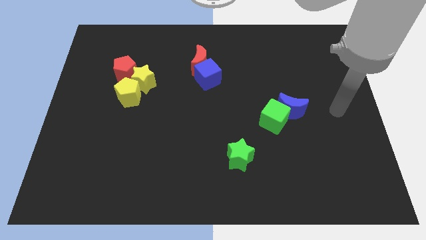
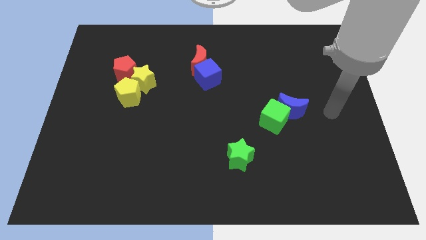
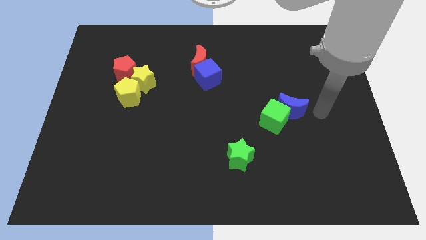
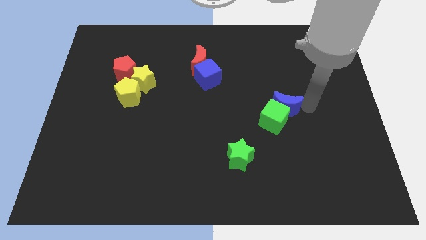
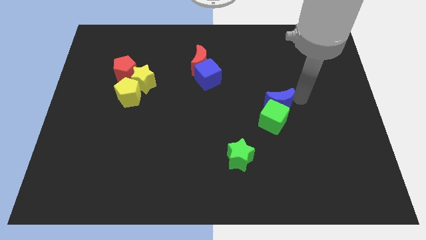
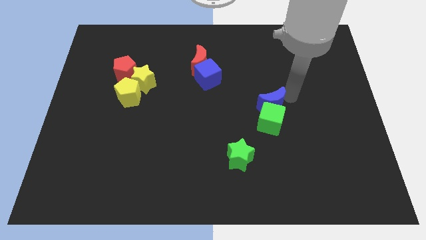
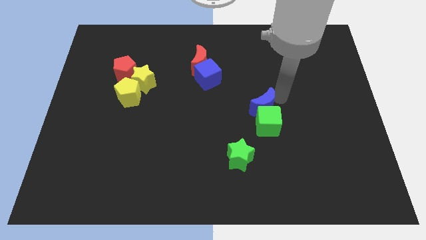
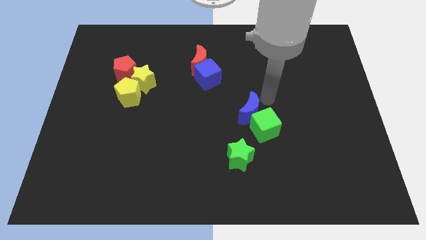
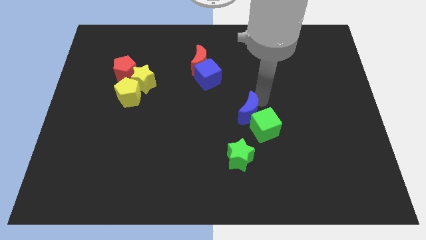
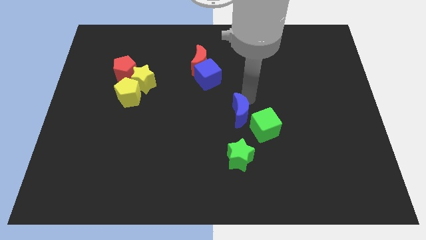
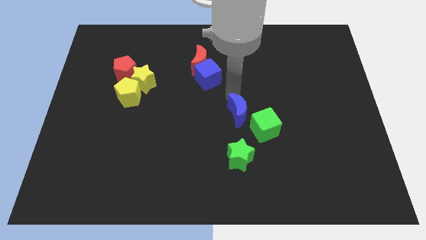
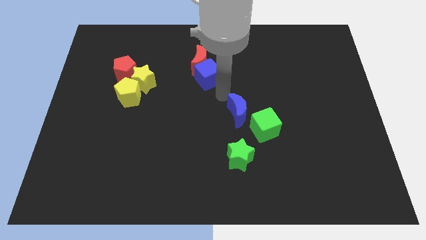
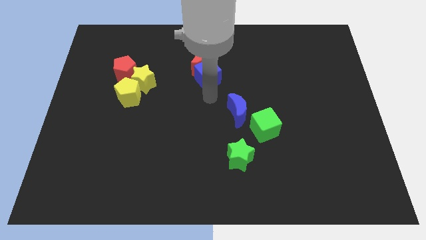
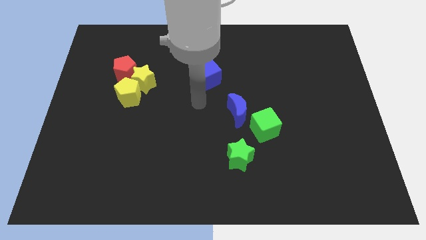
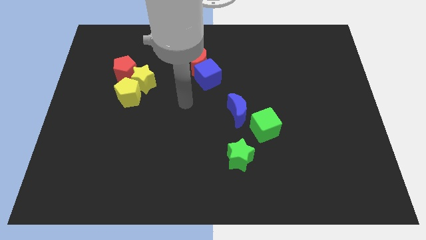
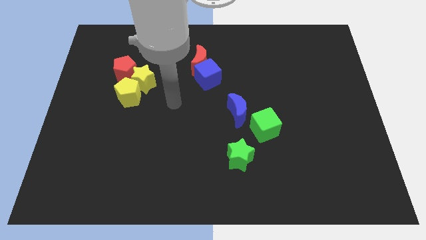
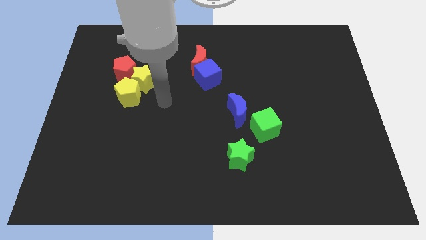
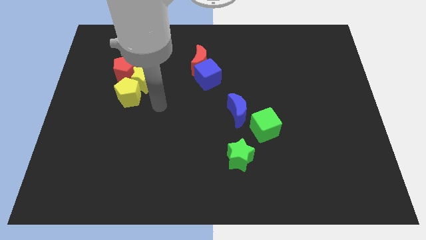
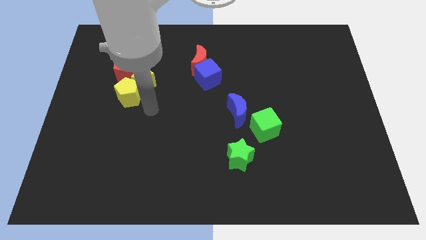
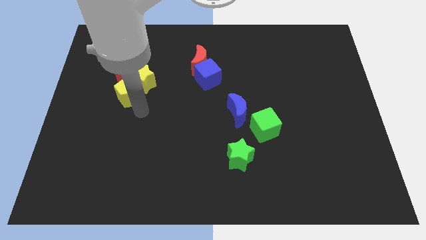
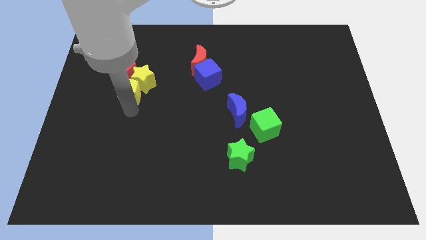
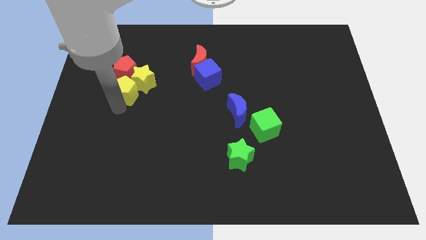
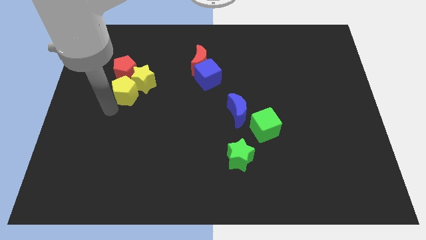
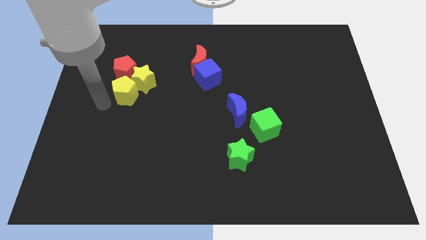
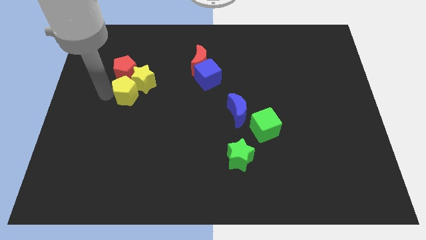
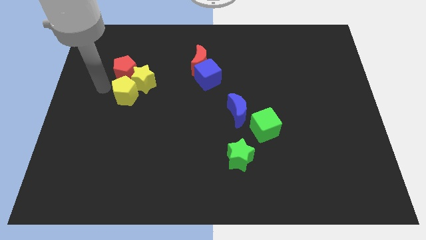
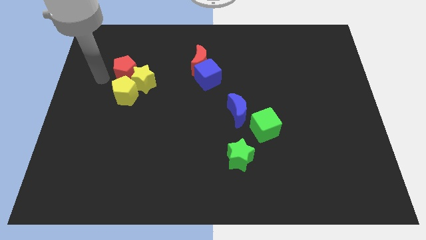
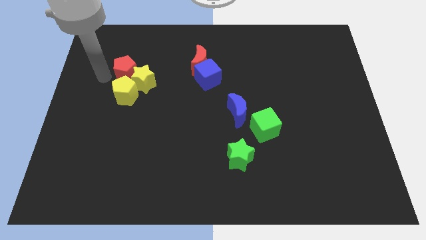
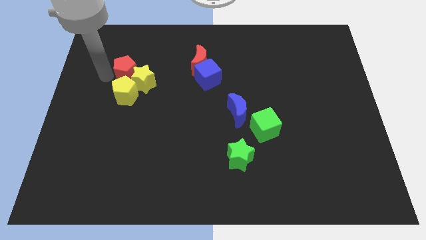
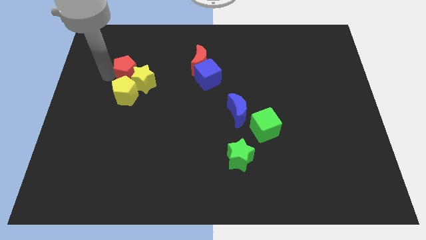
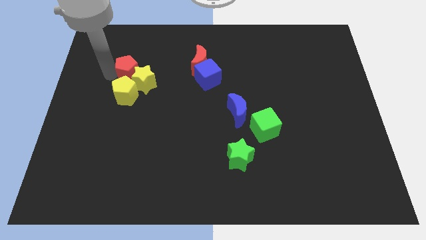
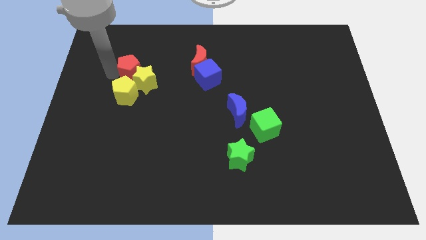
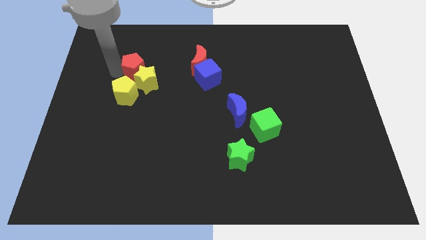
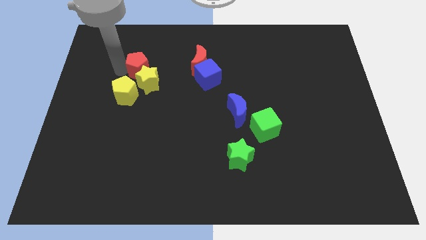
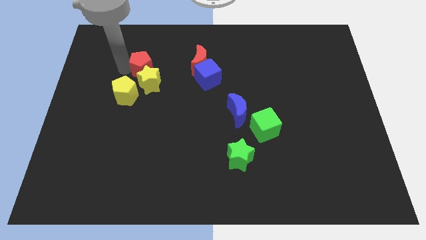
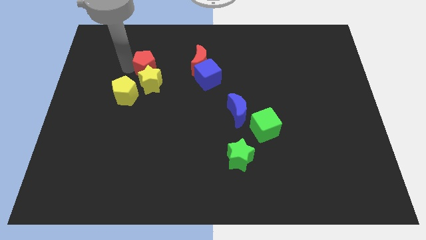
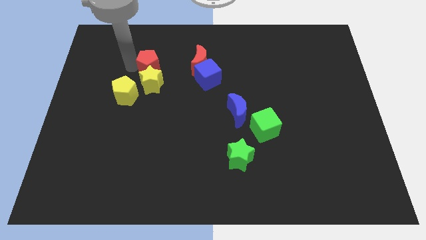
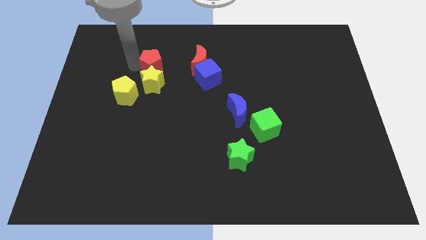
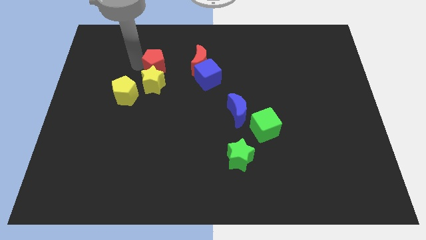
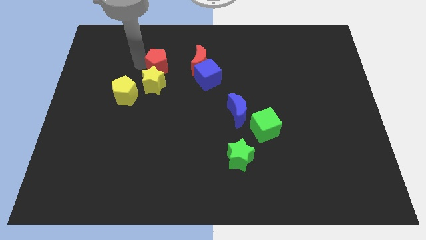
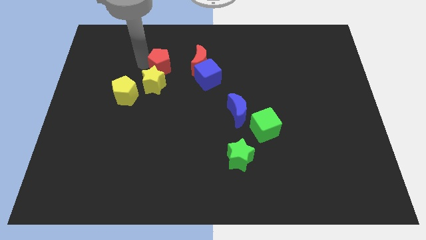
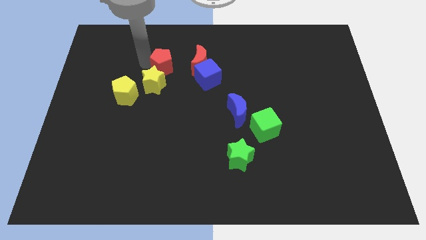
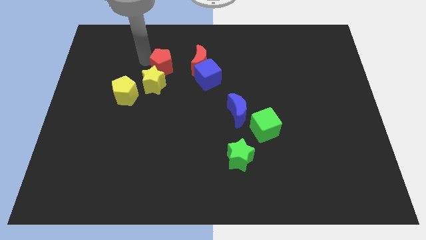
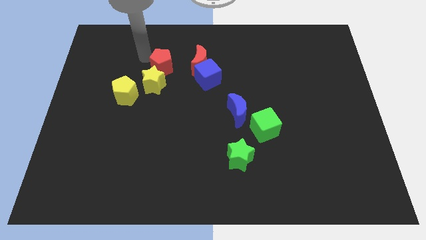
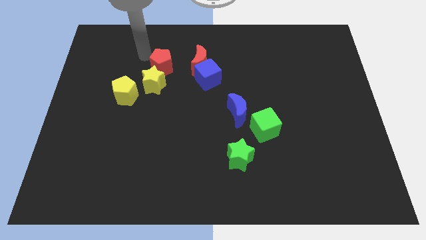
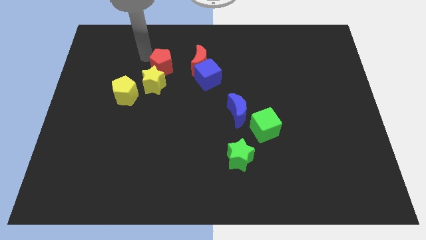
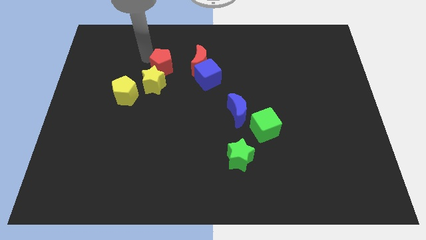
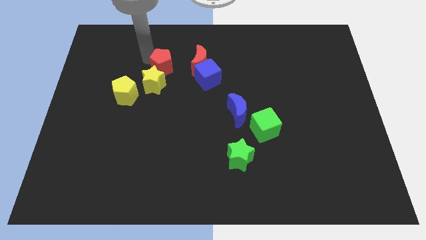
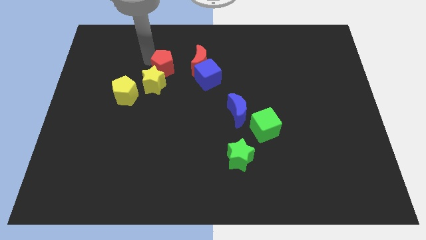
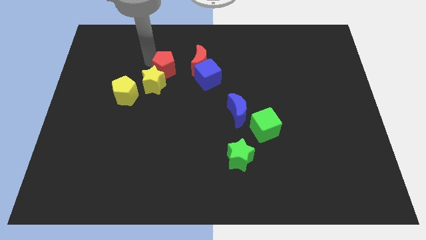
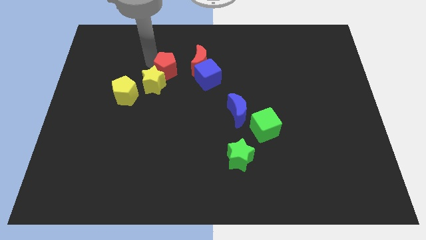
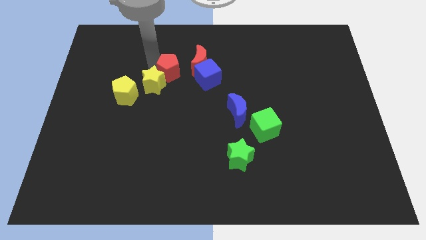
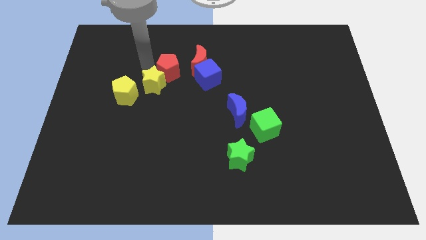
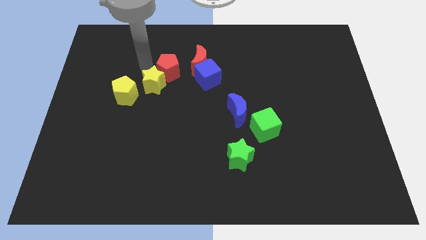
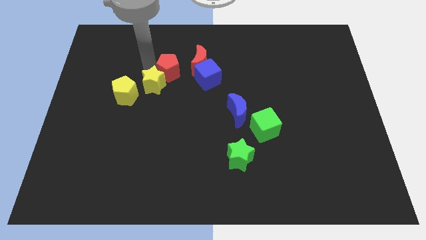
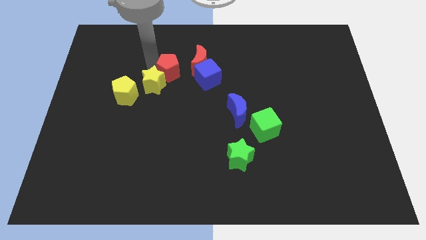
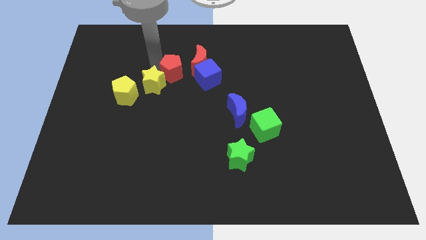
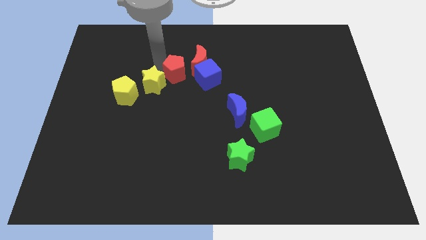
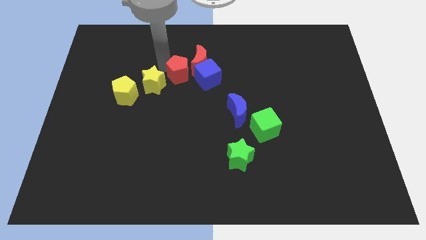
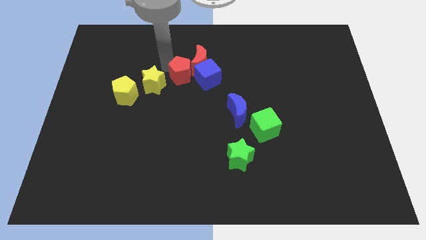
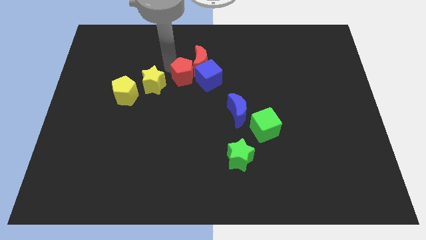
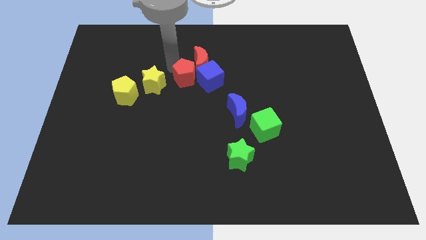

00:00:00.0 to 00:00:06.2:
slide the red pentagon towards the blue cube
